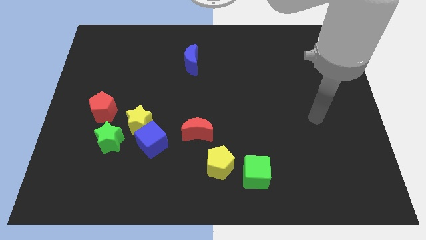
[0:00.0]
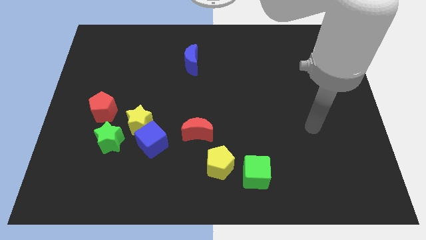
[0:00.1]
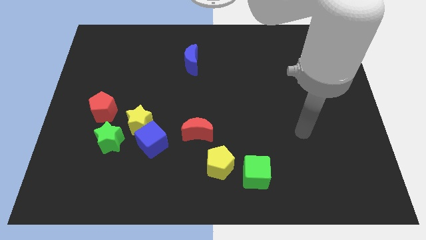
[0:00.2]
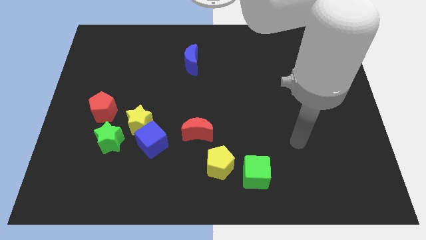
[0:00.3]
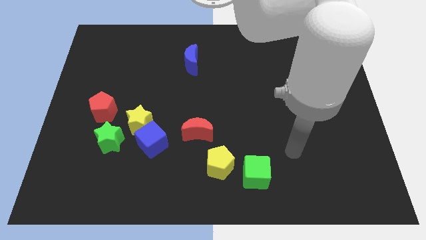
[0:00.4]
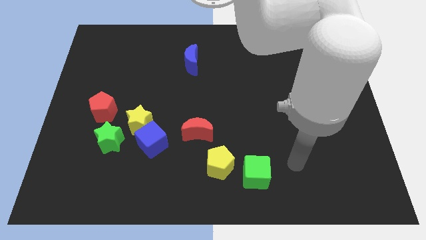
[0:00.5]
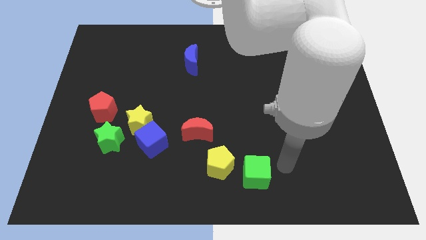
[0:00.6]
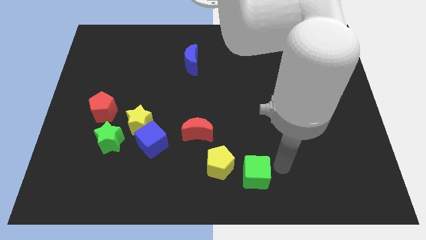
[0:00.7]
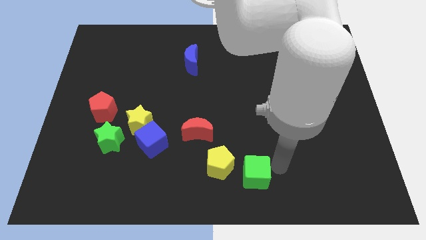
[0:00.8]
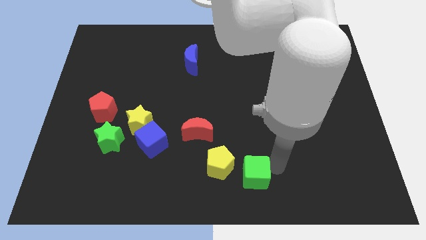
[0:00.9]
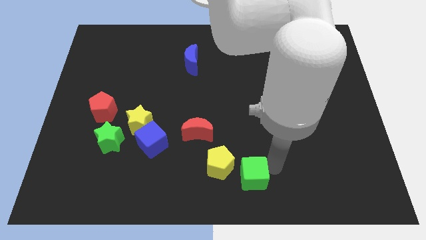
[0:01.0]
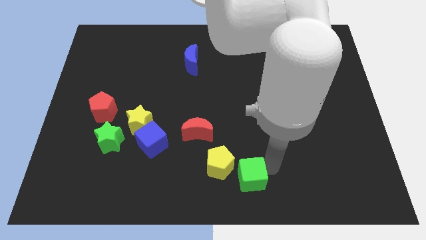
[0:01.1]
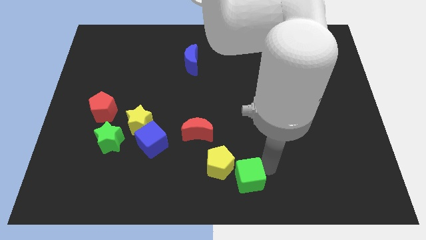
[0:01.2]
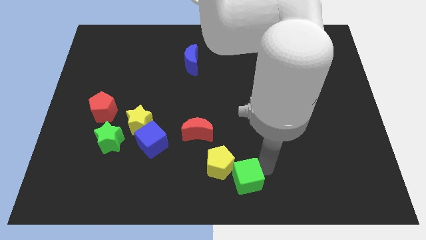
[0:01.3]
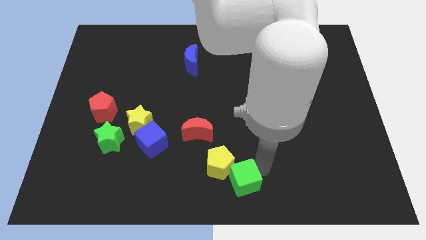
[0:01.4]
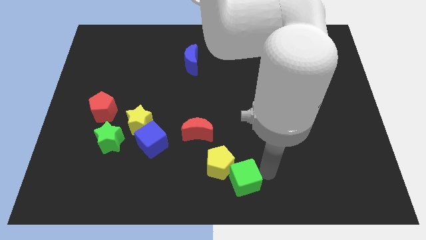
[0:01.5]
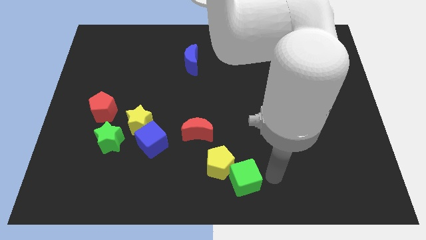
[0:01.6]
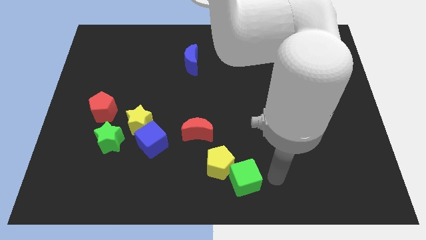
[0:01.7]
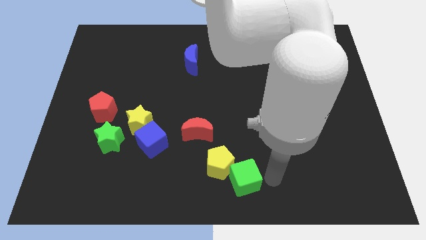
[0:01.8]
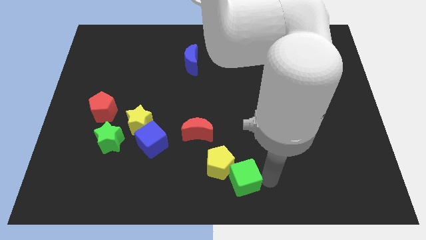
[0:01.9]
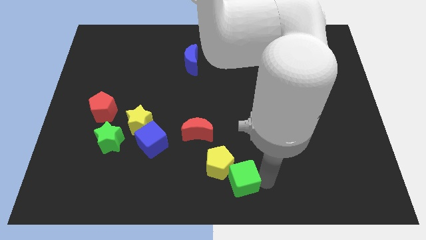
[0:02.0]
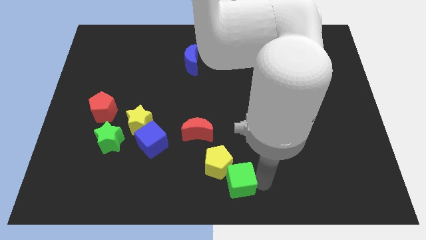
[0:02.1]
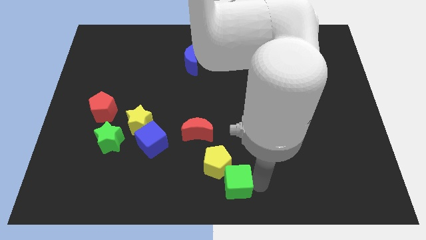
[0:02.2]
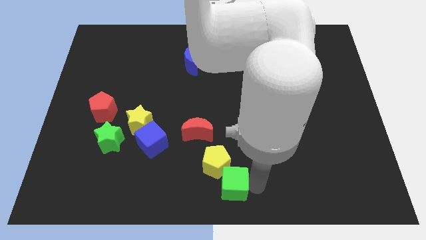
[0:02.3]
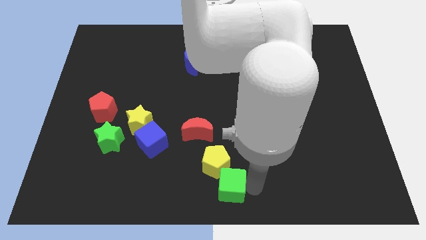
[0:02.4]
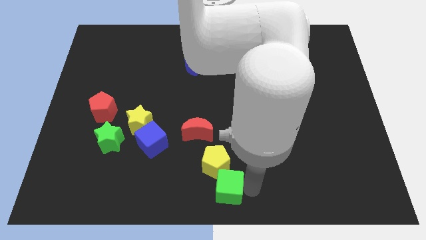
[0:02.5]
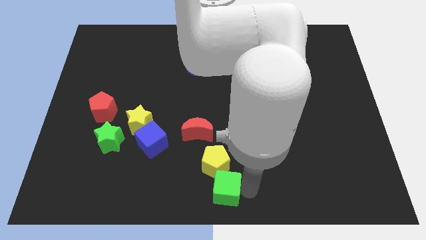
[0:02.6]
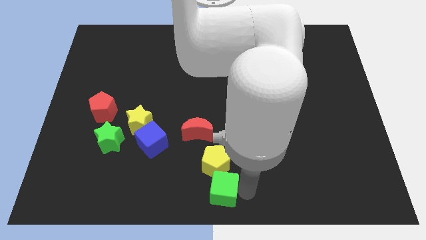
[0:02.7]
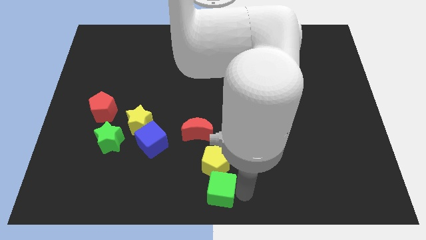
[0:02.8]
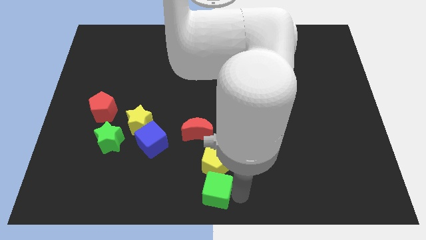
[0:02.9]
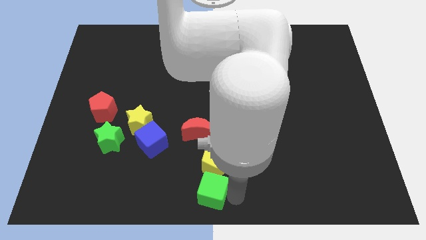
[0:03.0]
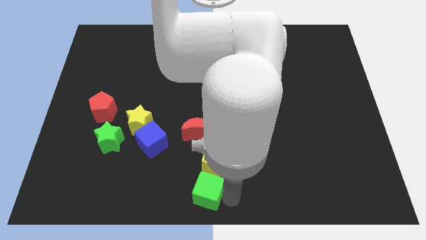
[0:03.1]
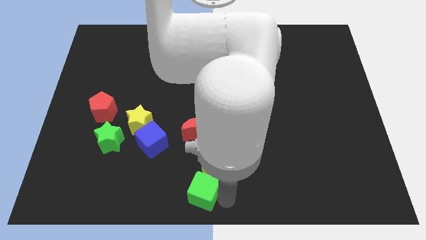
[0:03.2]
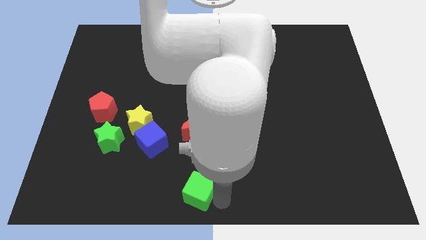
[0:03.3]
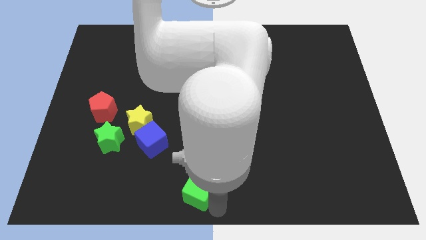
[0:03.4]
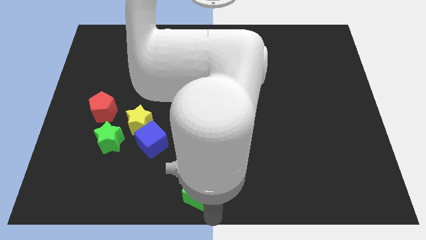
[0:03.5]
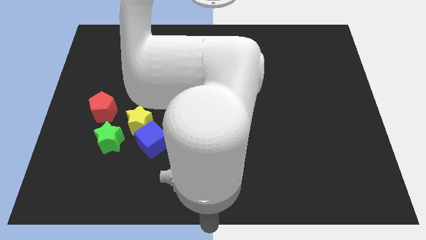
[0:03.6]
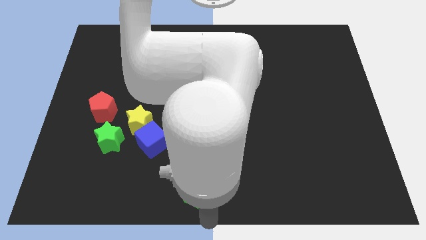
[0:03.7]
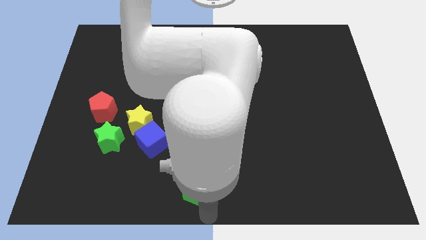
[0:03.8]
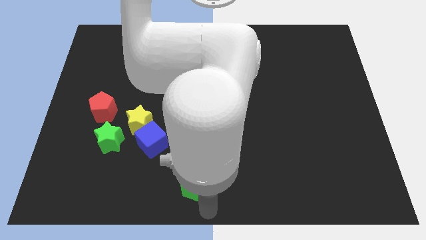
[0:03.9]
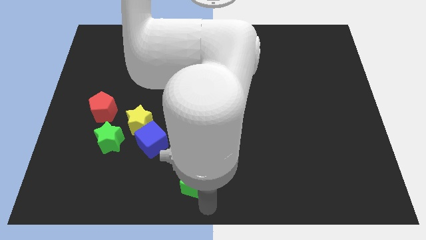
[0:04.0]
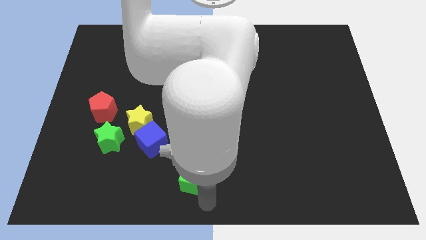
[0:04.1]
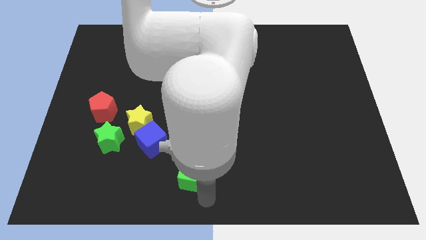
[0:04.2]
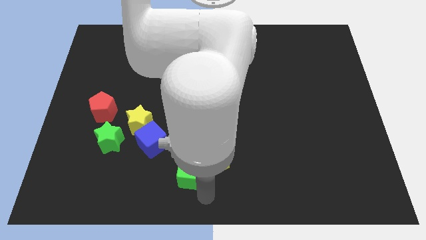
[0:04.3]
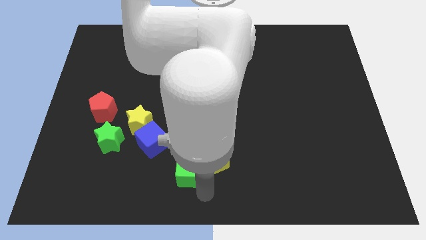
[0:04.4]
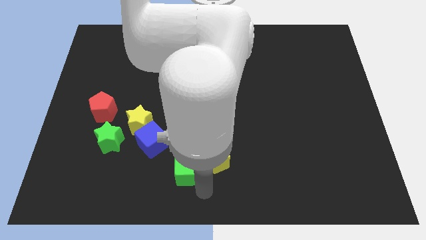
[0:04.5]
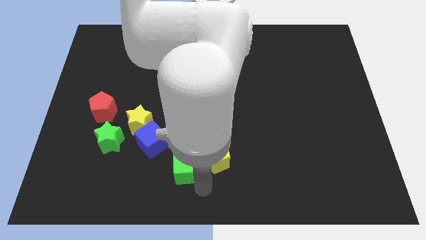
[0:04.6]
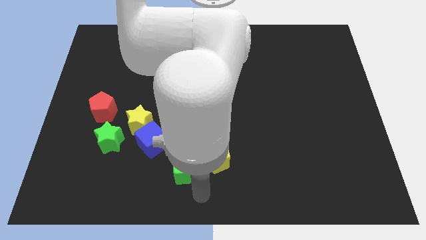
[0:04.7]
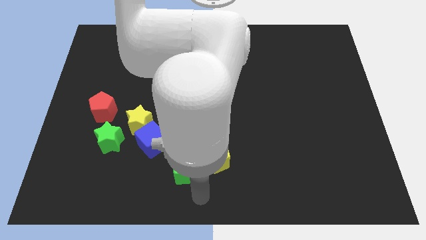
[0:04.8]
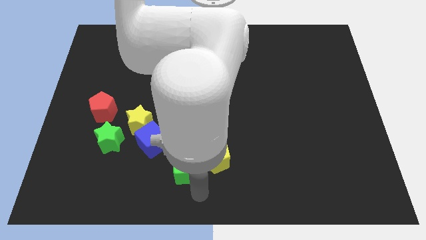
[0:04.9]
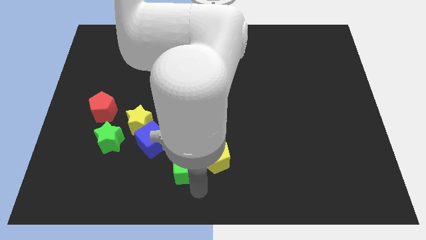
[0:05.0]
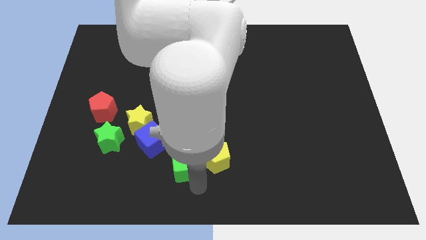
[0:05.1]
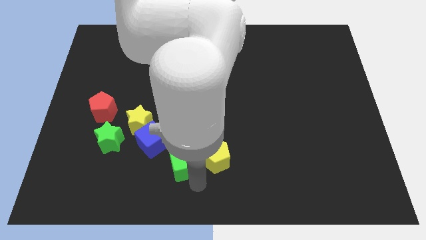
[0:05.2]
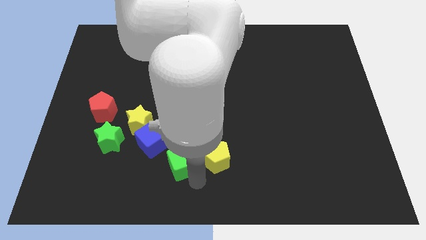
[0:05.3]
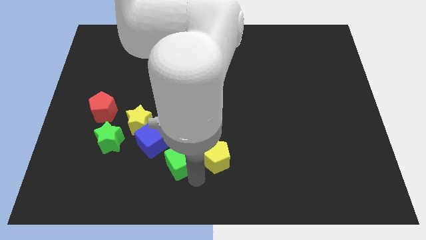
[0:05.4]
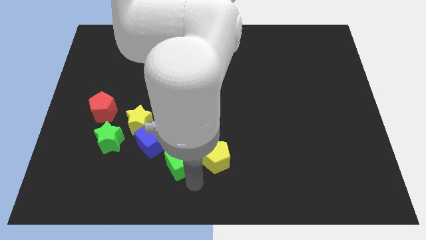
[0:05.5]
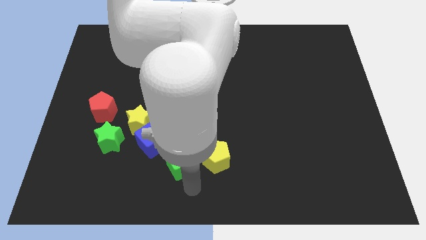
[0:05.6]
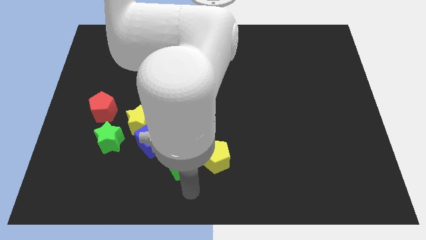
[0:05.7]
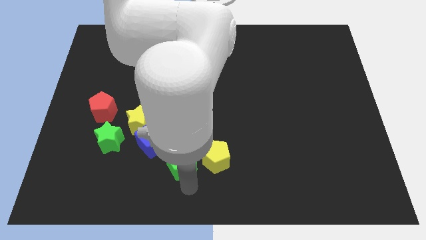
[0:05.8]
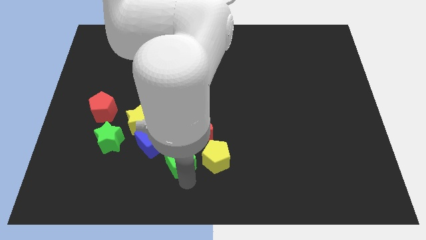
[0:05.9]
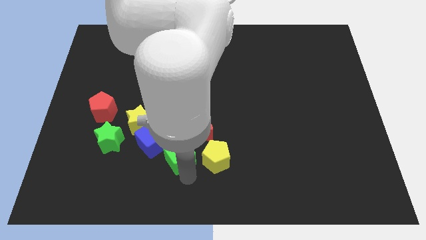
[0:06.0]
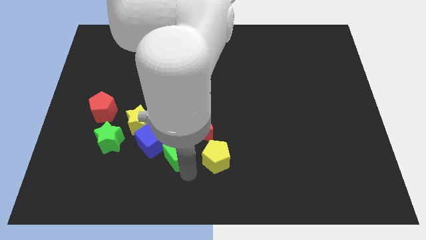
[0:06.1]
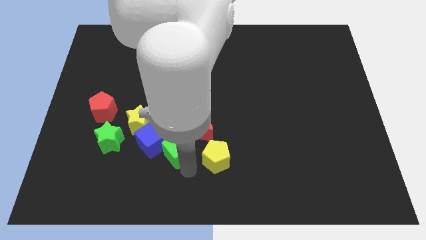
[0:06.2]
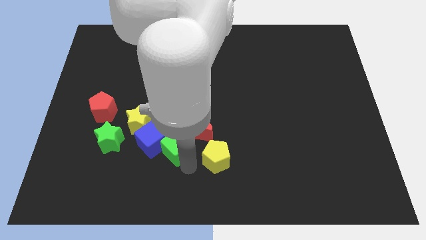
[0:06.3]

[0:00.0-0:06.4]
push the green cube close to the blue cube
